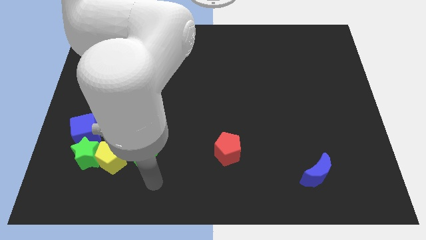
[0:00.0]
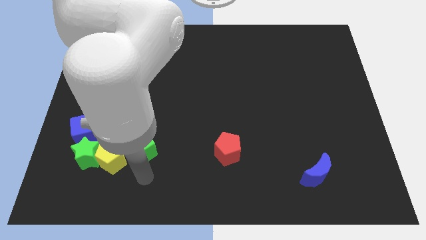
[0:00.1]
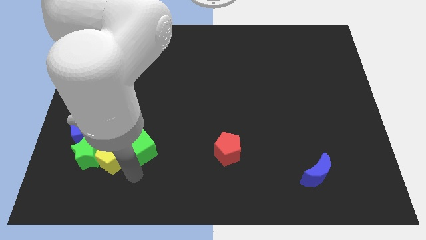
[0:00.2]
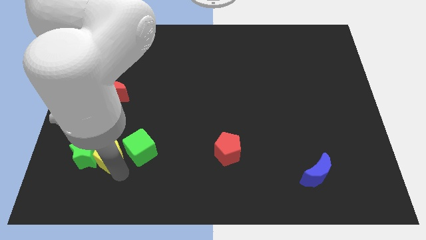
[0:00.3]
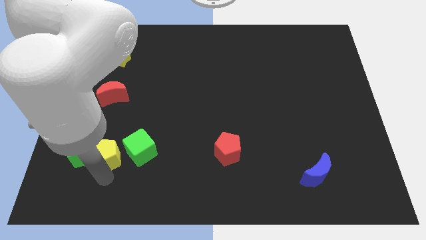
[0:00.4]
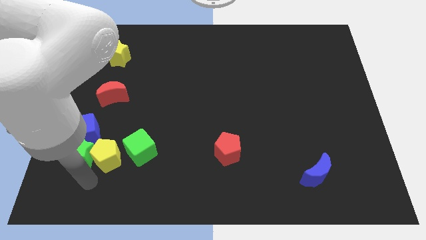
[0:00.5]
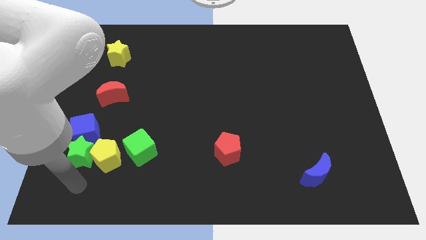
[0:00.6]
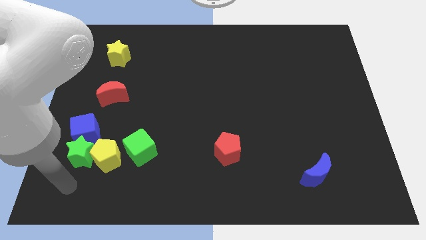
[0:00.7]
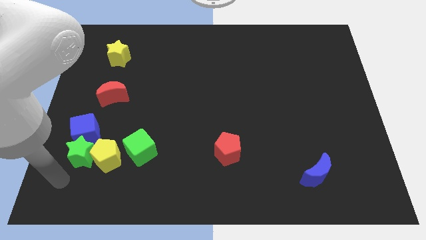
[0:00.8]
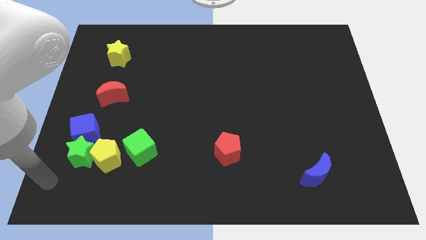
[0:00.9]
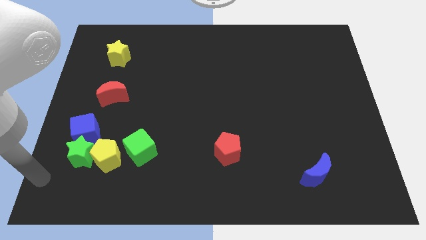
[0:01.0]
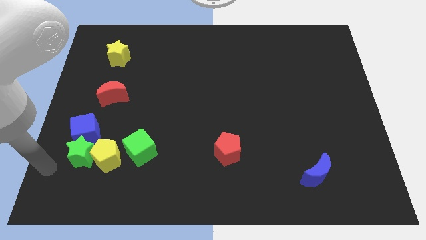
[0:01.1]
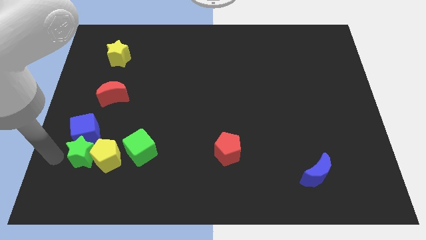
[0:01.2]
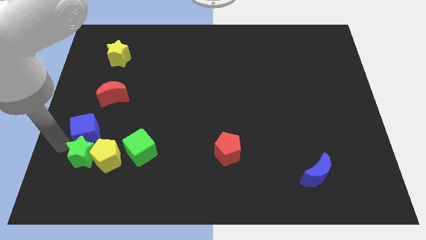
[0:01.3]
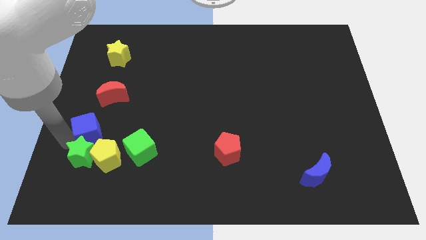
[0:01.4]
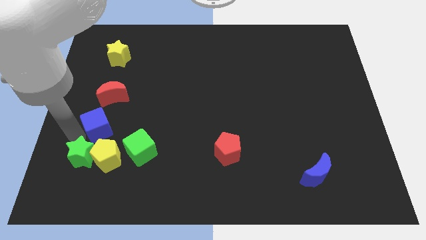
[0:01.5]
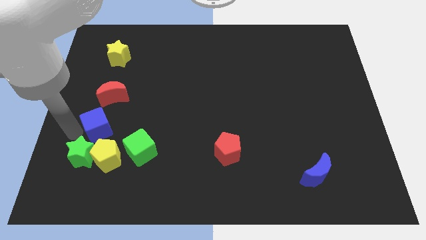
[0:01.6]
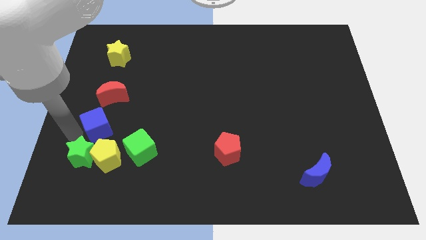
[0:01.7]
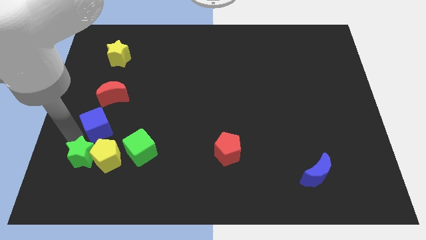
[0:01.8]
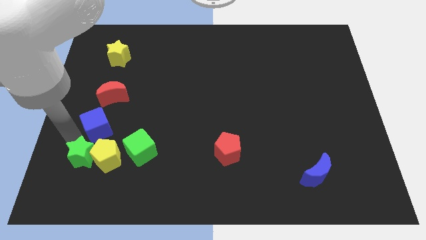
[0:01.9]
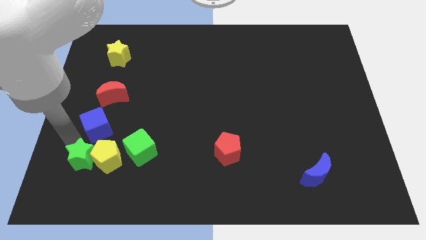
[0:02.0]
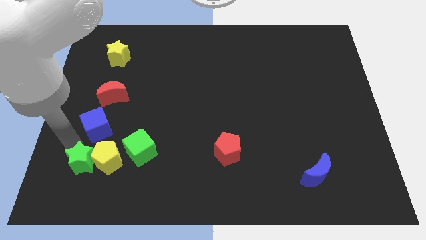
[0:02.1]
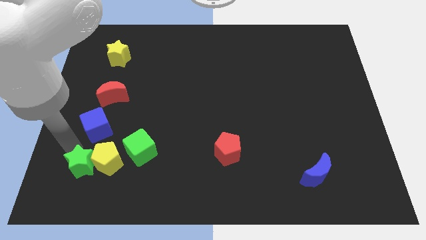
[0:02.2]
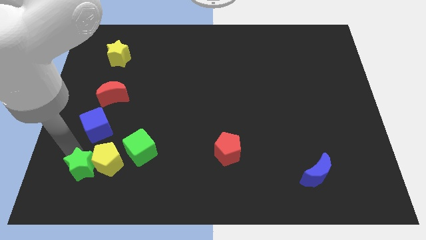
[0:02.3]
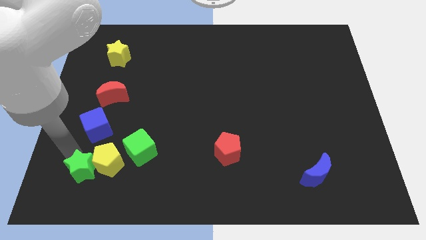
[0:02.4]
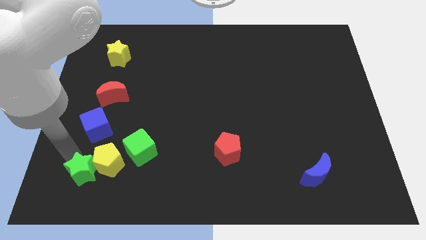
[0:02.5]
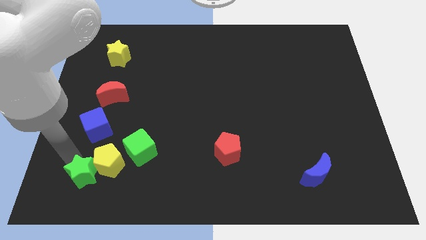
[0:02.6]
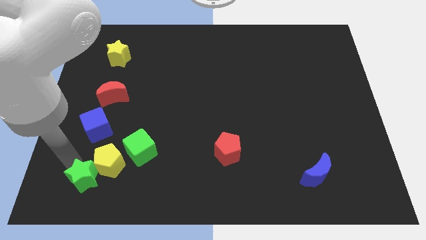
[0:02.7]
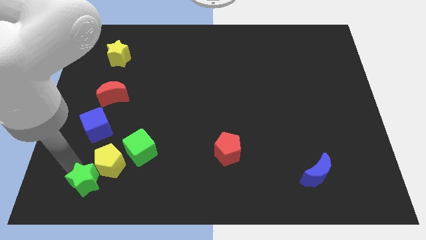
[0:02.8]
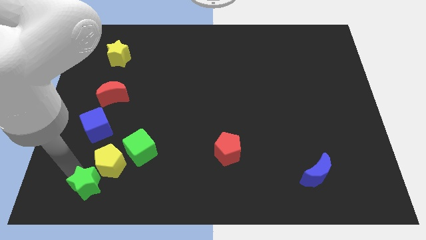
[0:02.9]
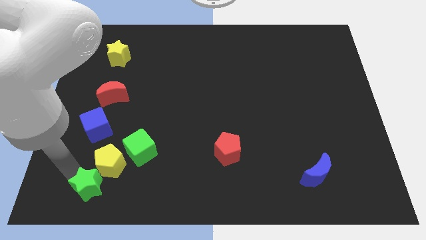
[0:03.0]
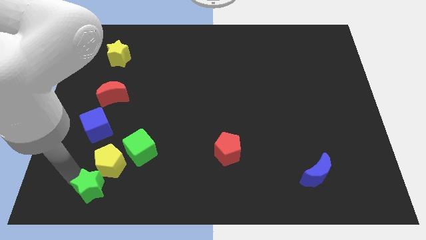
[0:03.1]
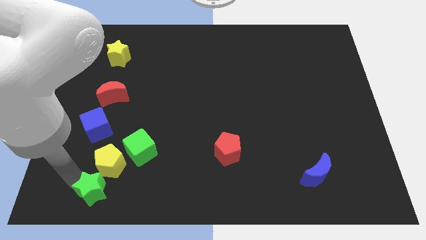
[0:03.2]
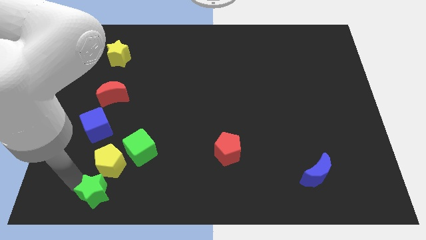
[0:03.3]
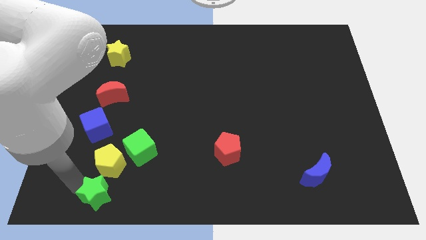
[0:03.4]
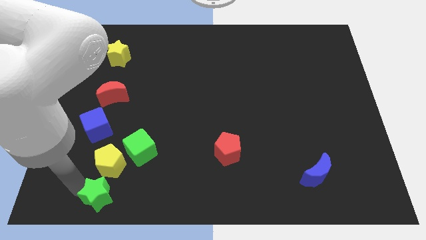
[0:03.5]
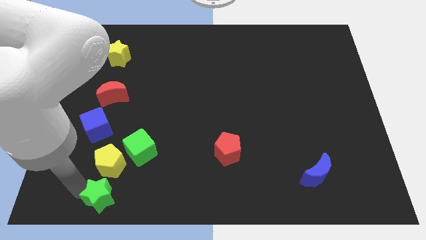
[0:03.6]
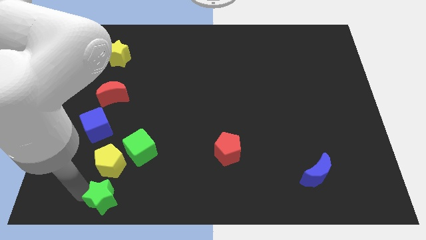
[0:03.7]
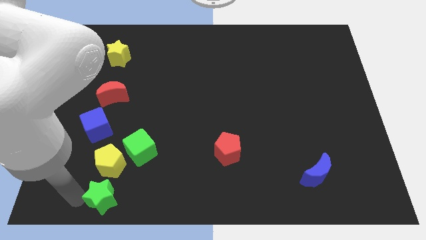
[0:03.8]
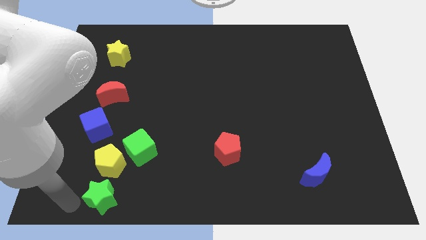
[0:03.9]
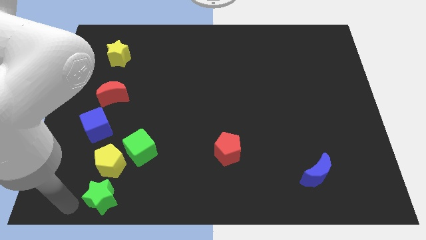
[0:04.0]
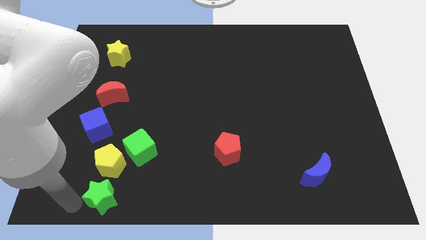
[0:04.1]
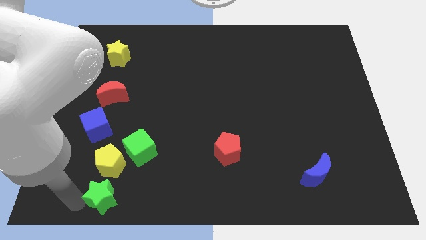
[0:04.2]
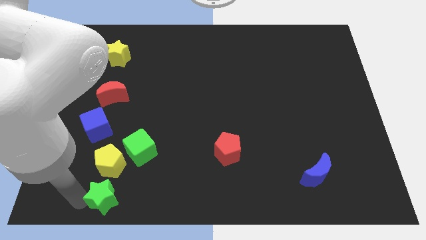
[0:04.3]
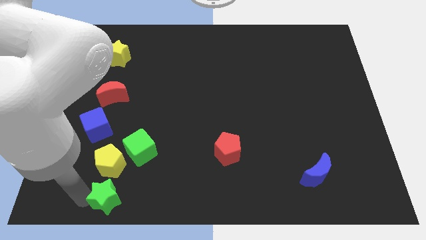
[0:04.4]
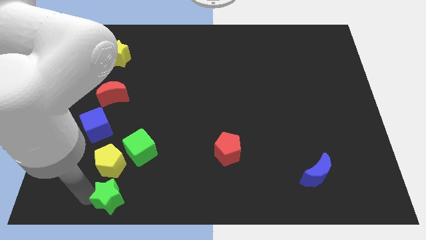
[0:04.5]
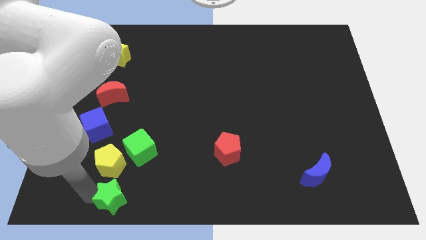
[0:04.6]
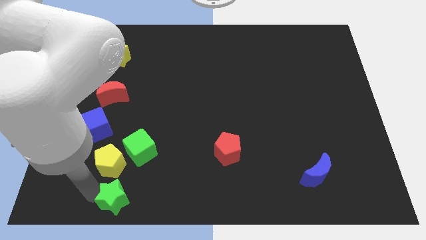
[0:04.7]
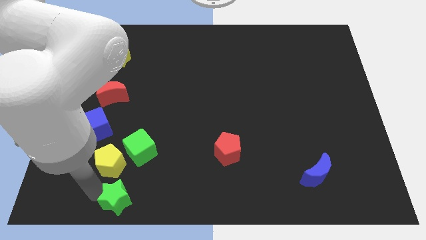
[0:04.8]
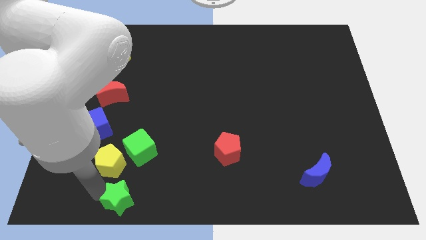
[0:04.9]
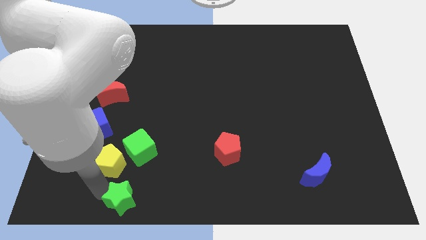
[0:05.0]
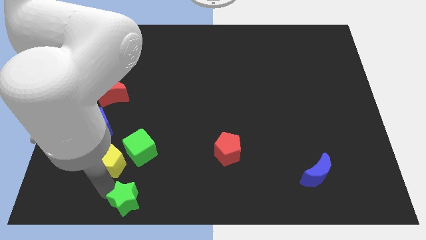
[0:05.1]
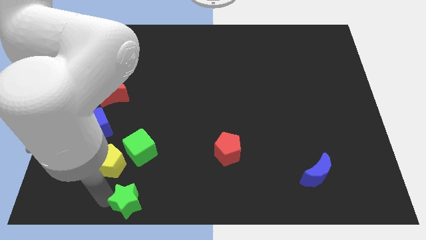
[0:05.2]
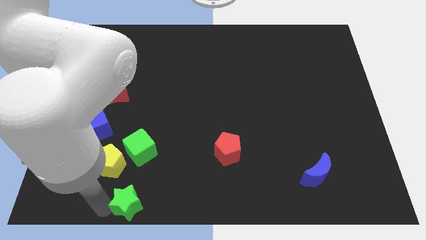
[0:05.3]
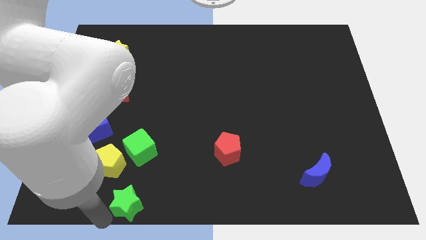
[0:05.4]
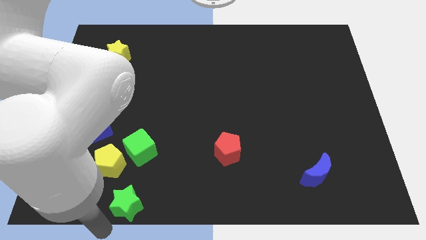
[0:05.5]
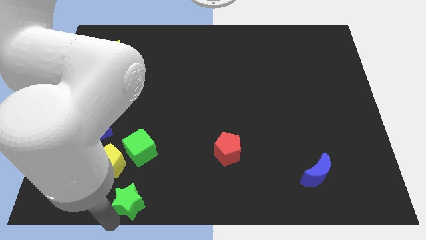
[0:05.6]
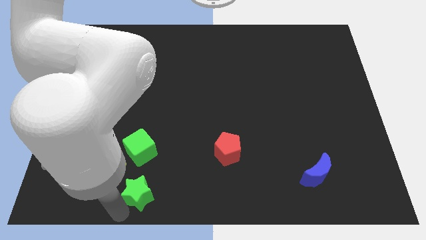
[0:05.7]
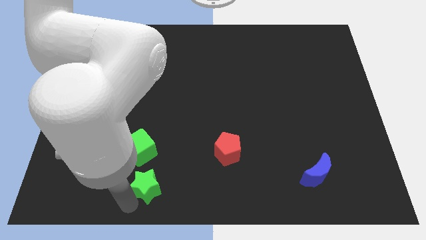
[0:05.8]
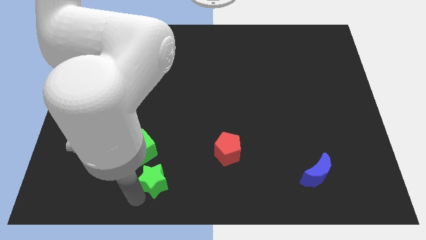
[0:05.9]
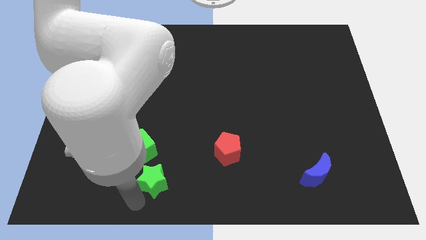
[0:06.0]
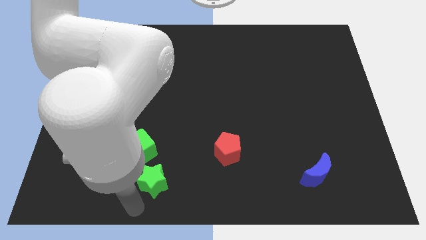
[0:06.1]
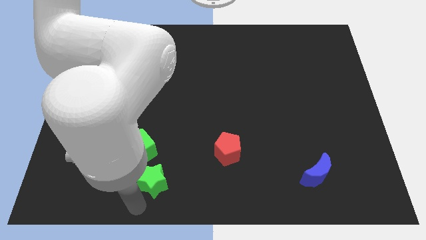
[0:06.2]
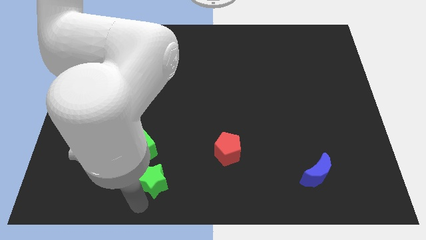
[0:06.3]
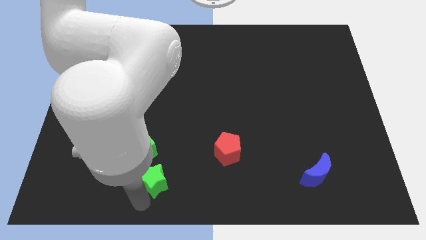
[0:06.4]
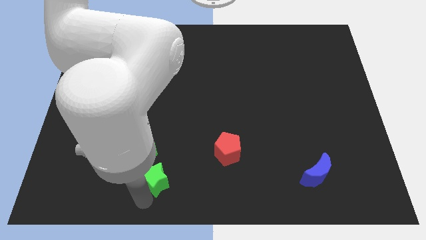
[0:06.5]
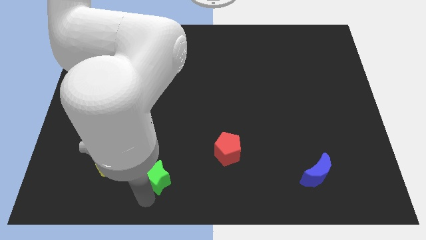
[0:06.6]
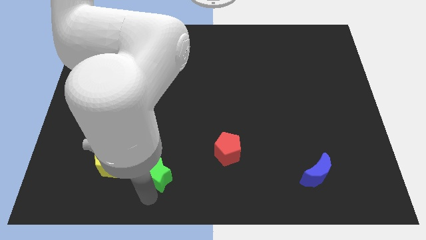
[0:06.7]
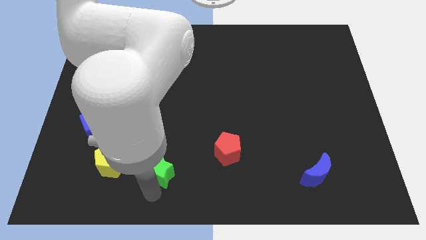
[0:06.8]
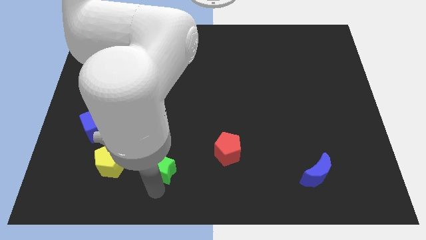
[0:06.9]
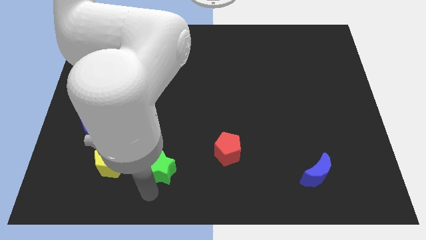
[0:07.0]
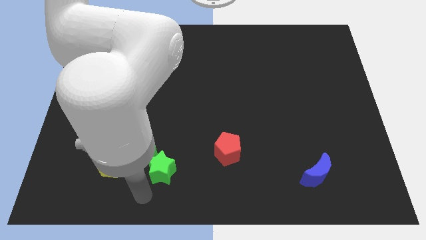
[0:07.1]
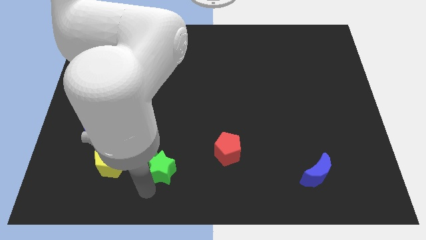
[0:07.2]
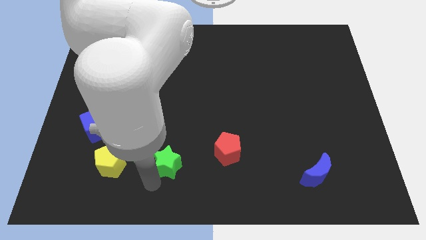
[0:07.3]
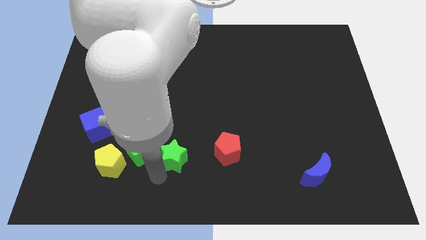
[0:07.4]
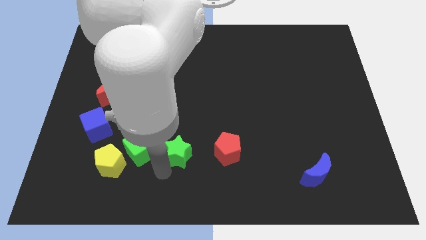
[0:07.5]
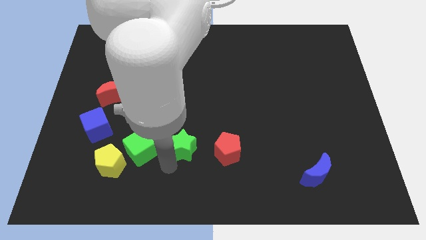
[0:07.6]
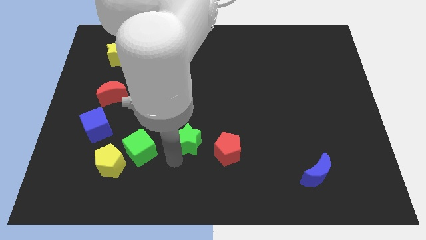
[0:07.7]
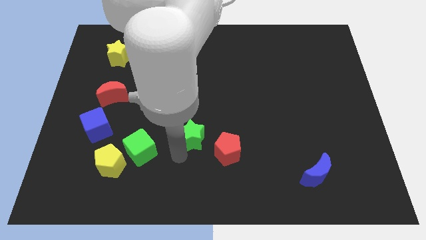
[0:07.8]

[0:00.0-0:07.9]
push the green star to the center
